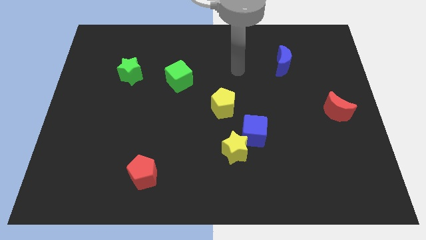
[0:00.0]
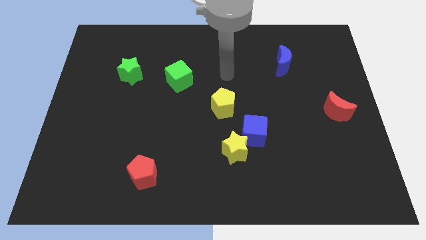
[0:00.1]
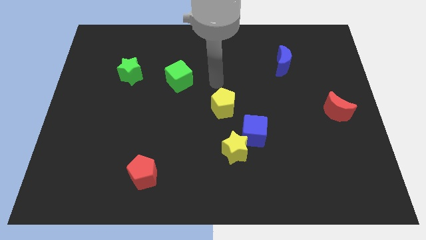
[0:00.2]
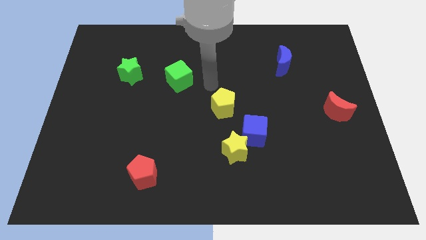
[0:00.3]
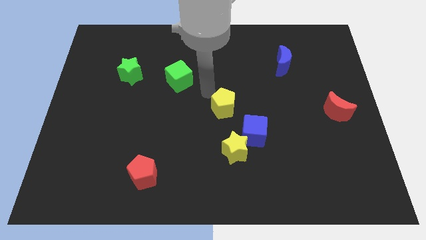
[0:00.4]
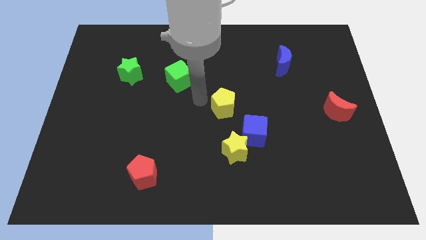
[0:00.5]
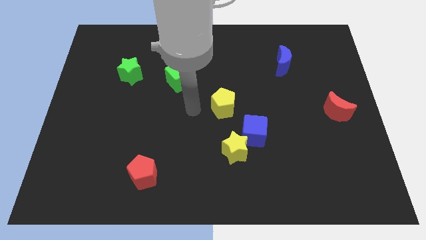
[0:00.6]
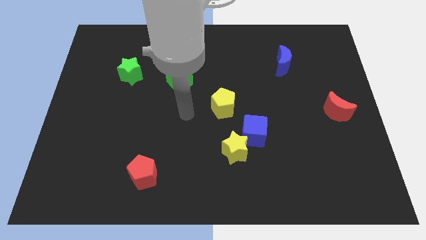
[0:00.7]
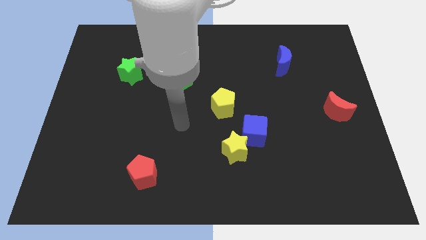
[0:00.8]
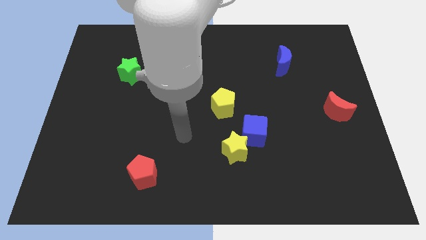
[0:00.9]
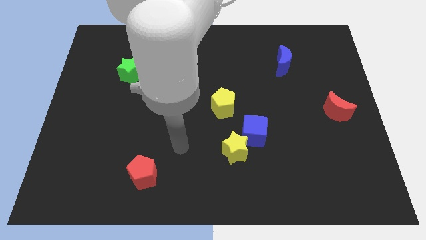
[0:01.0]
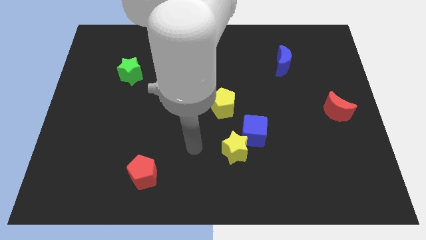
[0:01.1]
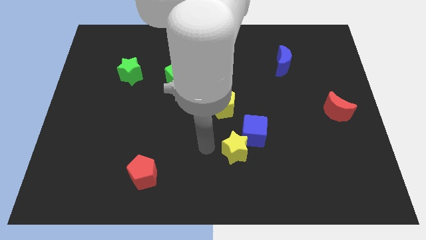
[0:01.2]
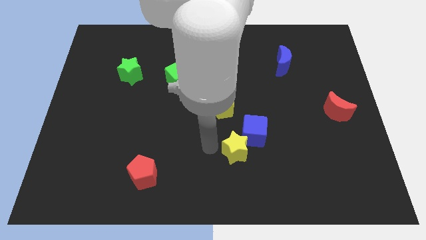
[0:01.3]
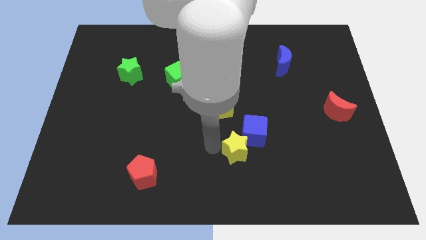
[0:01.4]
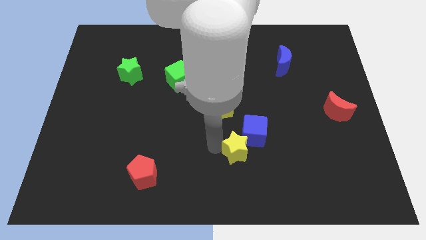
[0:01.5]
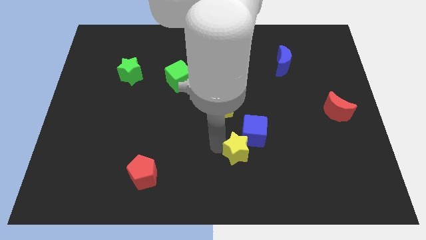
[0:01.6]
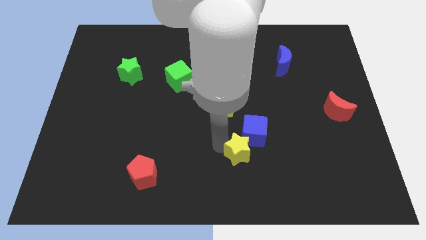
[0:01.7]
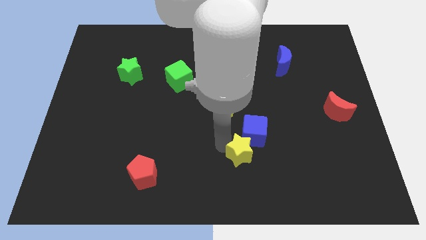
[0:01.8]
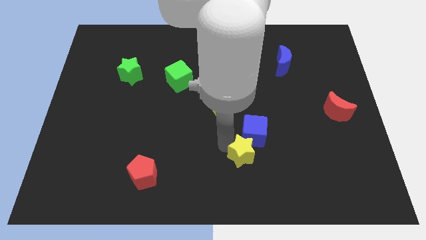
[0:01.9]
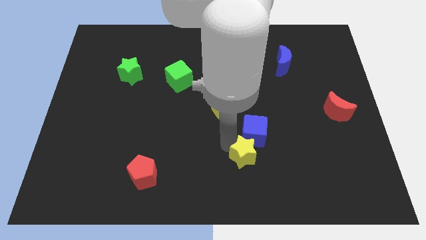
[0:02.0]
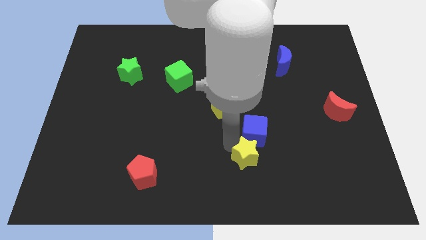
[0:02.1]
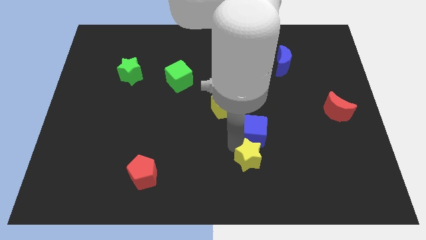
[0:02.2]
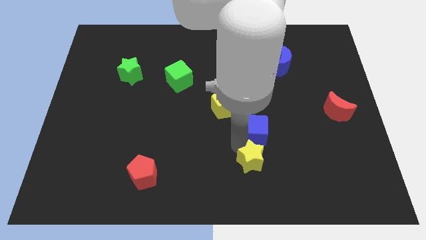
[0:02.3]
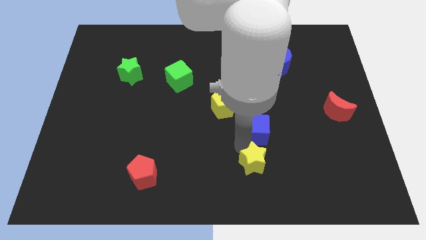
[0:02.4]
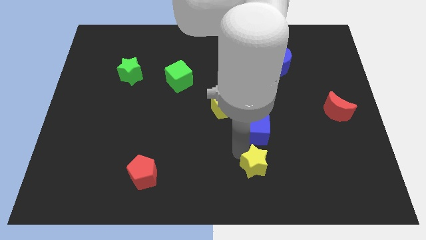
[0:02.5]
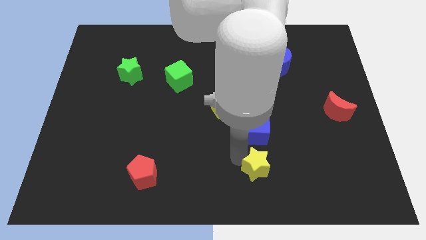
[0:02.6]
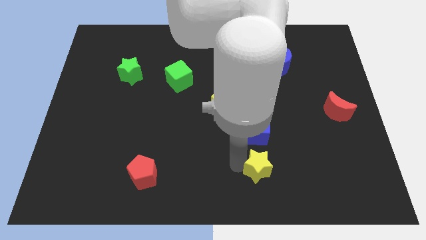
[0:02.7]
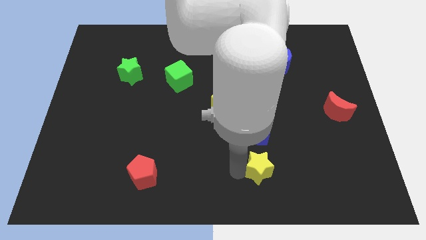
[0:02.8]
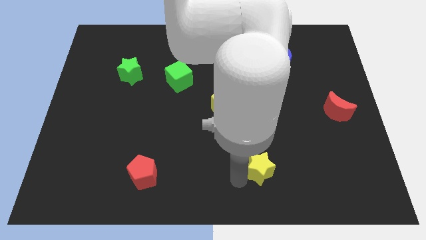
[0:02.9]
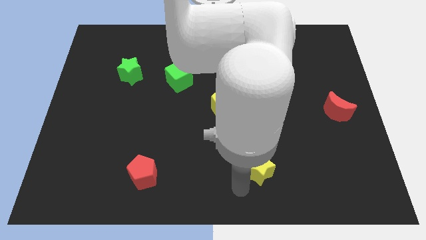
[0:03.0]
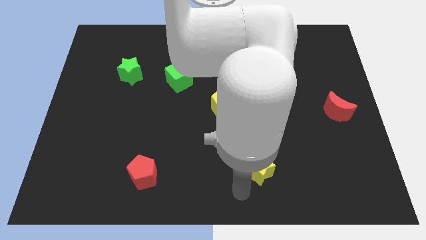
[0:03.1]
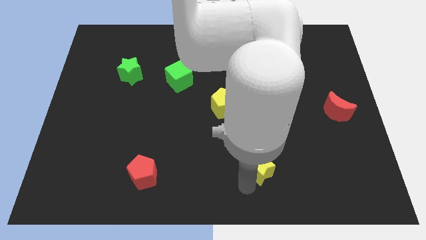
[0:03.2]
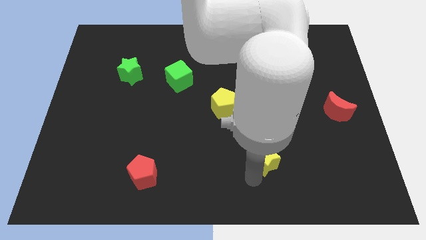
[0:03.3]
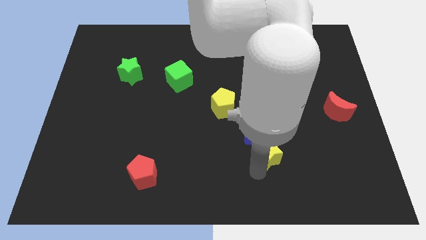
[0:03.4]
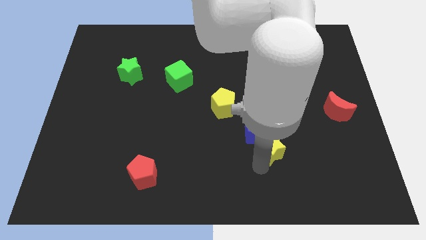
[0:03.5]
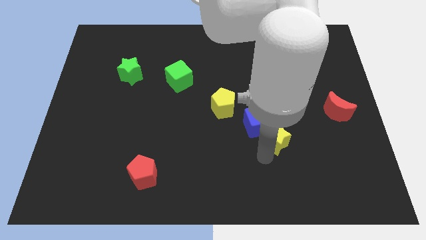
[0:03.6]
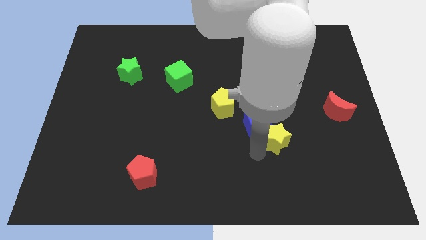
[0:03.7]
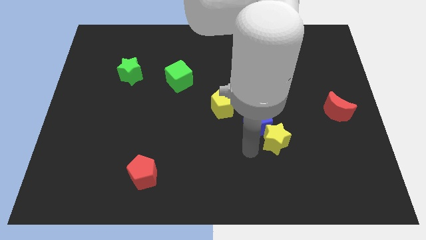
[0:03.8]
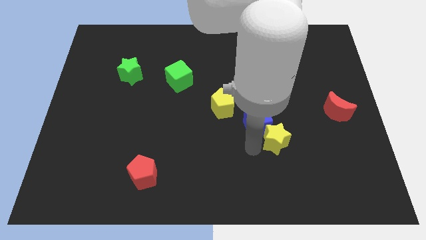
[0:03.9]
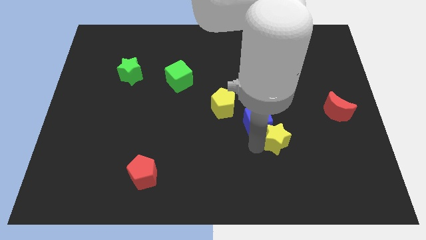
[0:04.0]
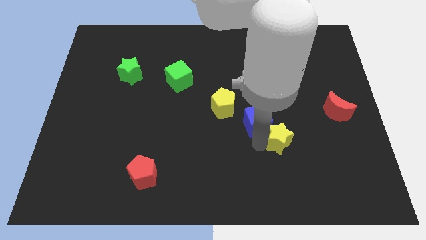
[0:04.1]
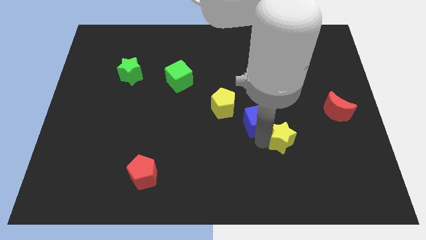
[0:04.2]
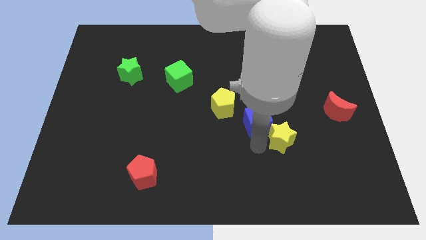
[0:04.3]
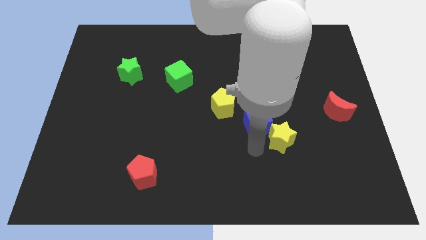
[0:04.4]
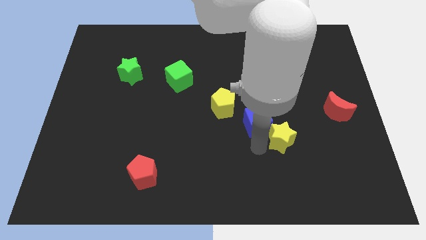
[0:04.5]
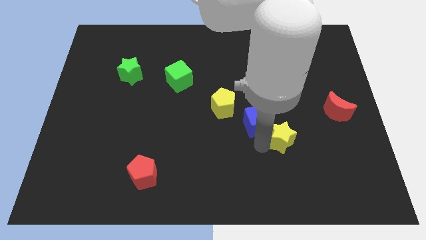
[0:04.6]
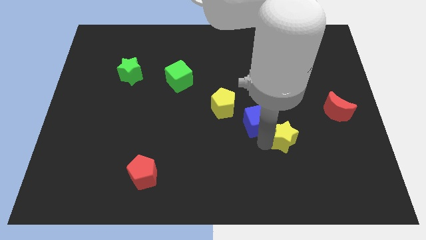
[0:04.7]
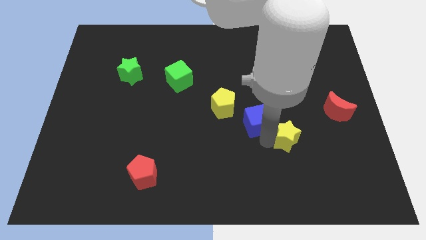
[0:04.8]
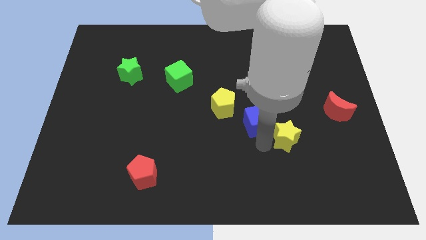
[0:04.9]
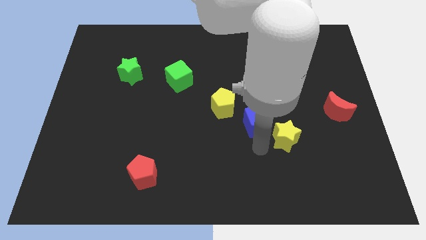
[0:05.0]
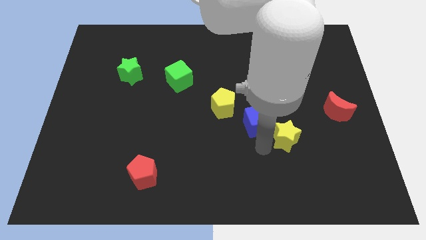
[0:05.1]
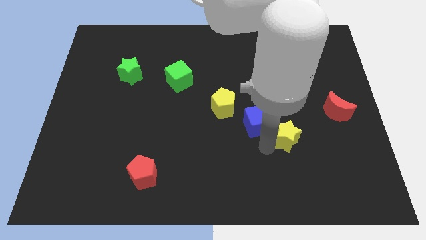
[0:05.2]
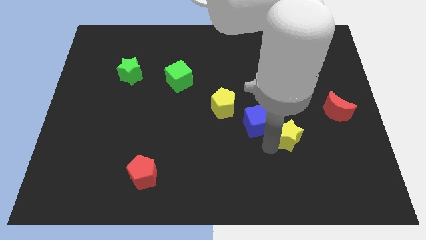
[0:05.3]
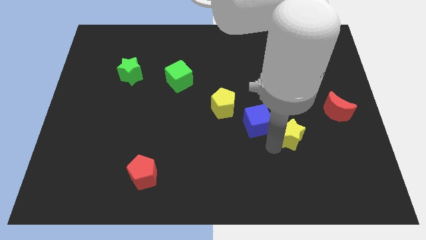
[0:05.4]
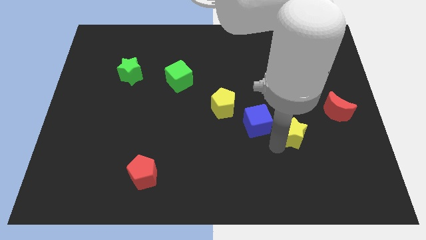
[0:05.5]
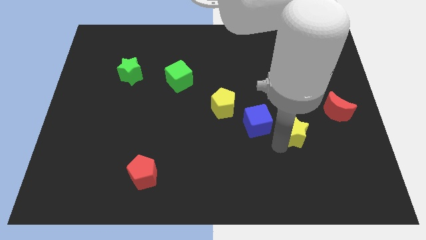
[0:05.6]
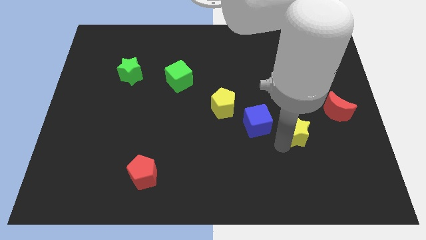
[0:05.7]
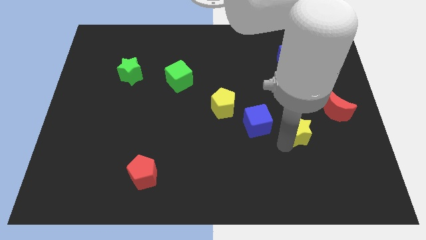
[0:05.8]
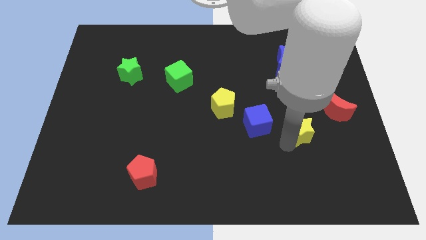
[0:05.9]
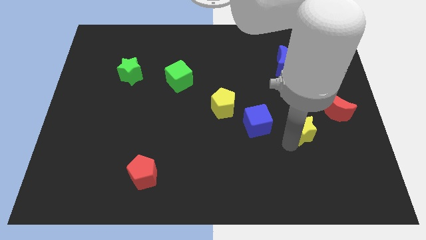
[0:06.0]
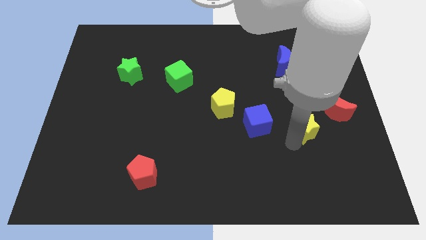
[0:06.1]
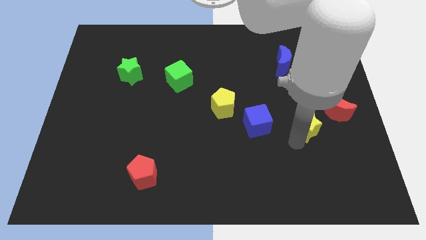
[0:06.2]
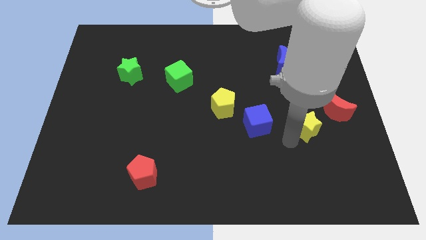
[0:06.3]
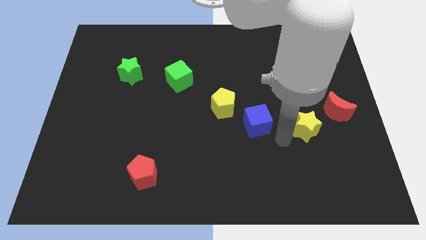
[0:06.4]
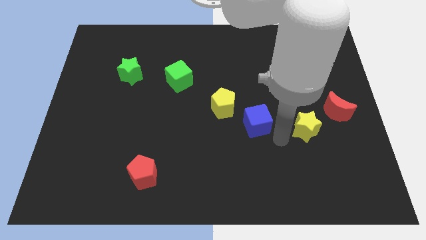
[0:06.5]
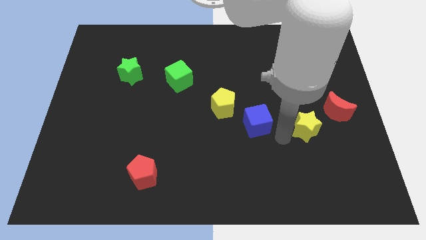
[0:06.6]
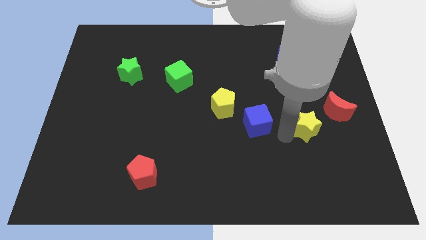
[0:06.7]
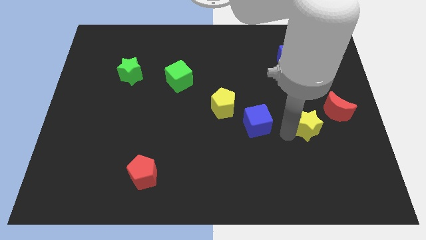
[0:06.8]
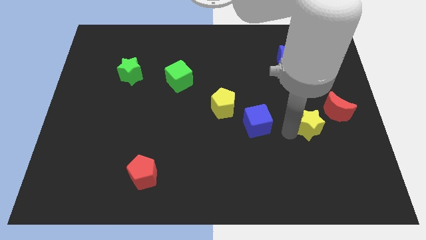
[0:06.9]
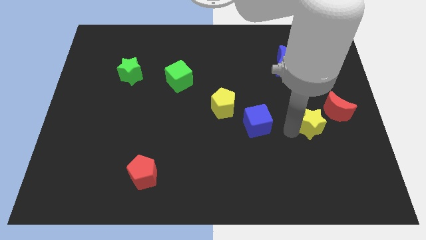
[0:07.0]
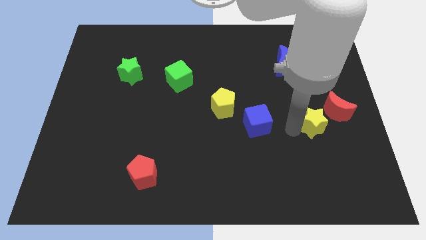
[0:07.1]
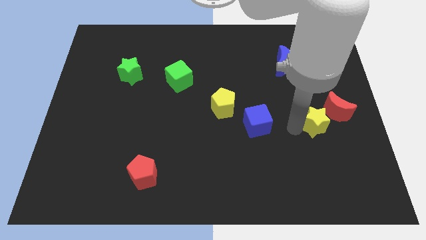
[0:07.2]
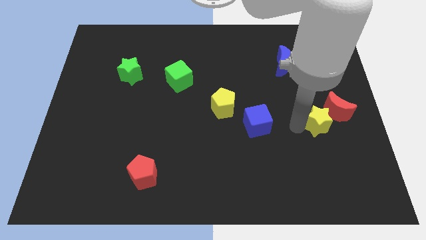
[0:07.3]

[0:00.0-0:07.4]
move the yellow star close to the red moon
